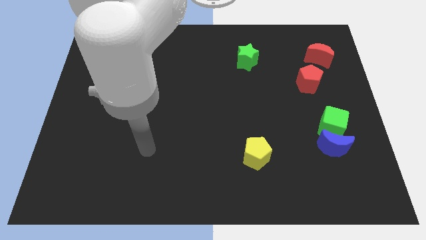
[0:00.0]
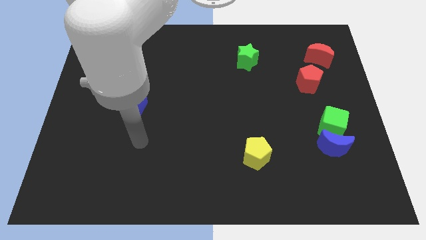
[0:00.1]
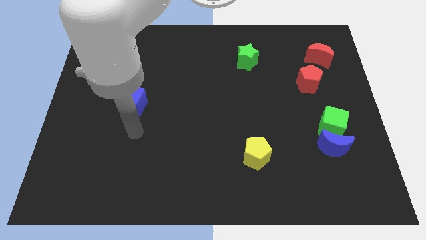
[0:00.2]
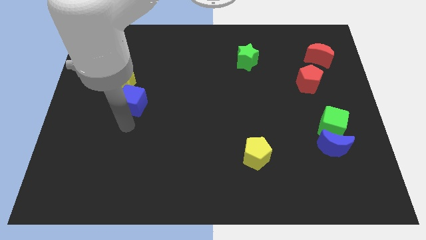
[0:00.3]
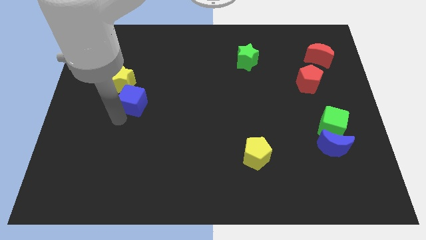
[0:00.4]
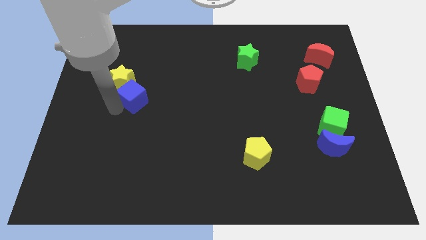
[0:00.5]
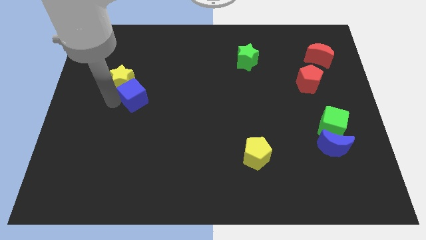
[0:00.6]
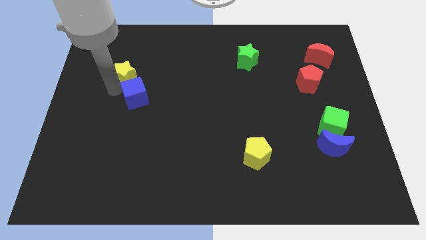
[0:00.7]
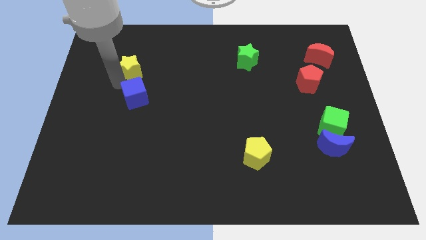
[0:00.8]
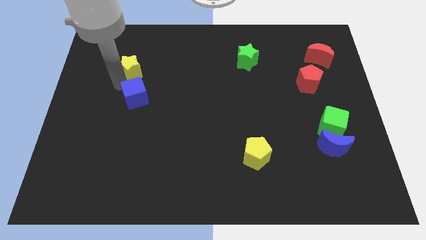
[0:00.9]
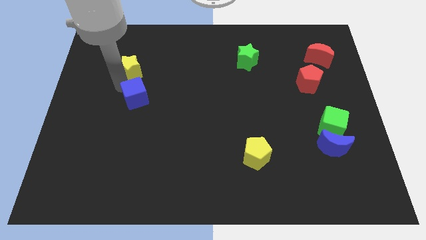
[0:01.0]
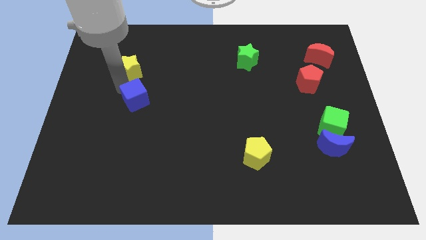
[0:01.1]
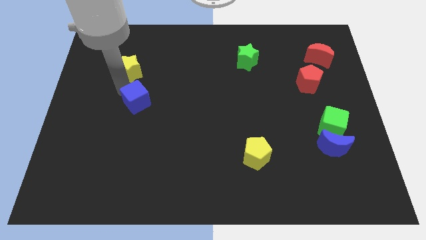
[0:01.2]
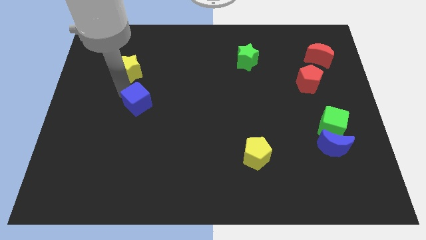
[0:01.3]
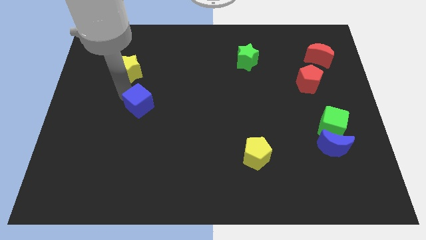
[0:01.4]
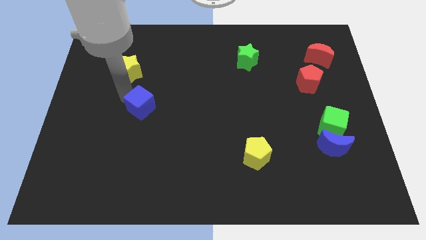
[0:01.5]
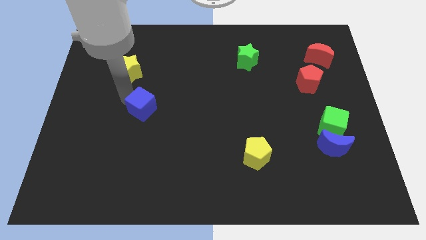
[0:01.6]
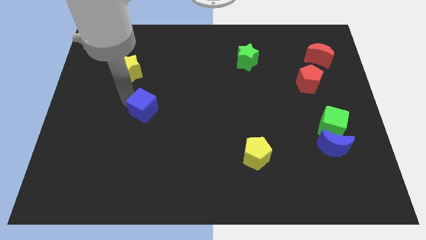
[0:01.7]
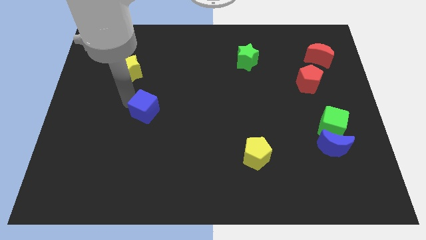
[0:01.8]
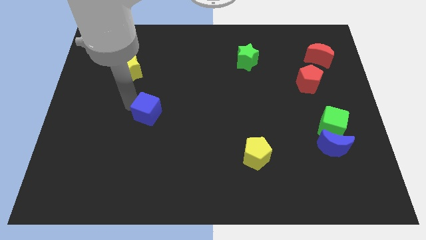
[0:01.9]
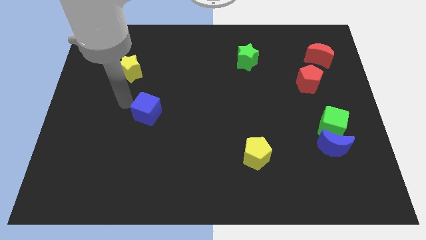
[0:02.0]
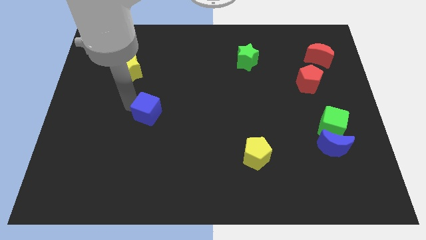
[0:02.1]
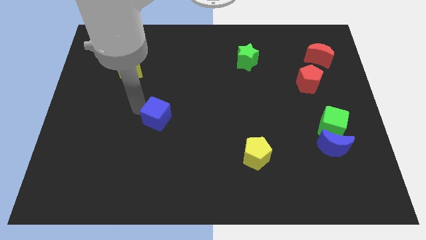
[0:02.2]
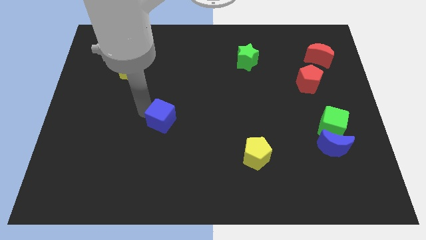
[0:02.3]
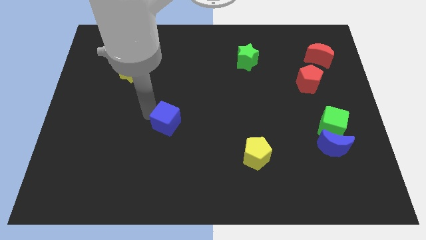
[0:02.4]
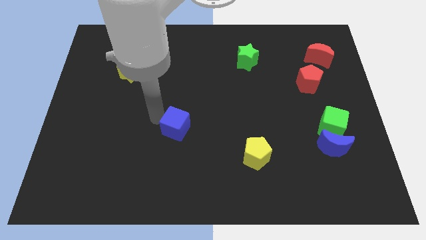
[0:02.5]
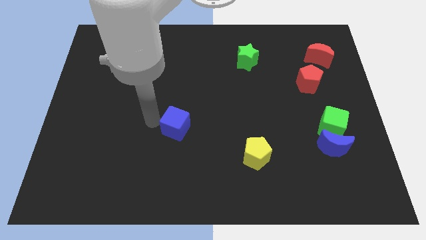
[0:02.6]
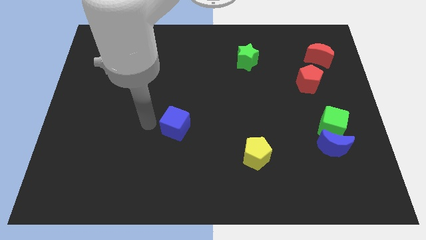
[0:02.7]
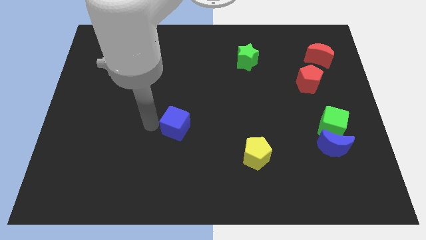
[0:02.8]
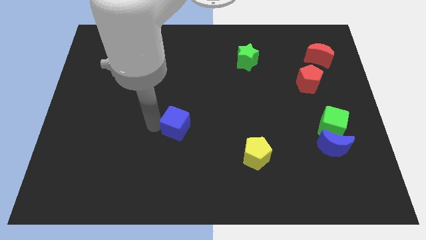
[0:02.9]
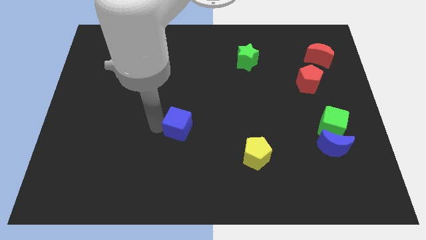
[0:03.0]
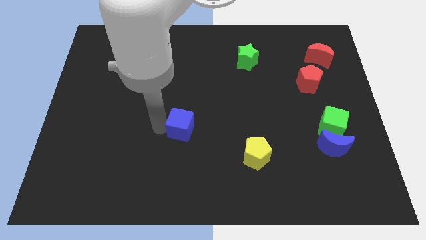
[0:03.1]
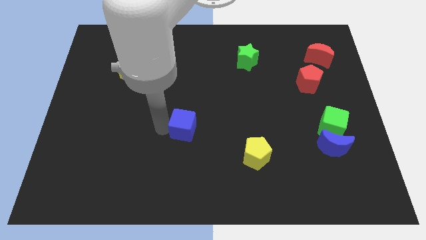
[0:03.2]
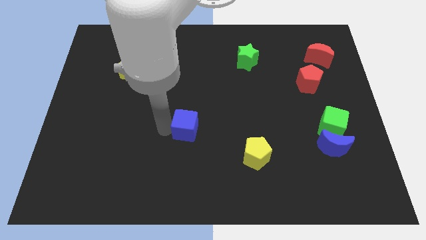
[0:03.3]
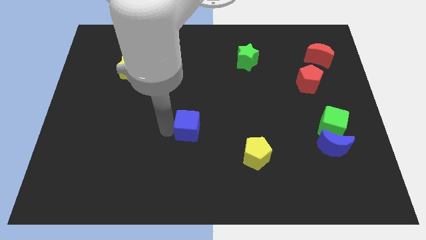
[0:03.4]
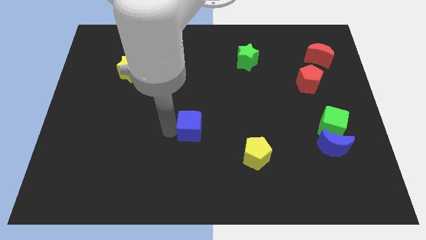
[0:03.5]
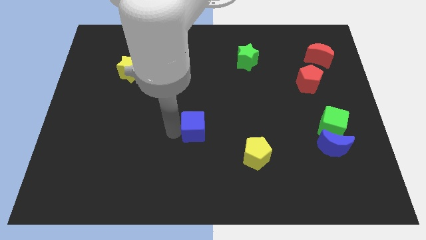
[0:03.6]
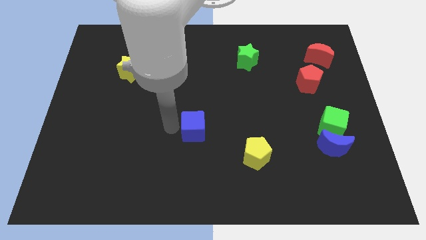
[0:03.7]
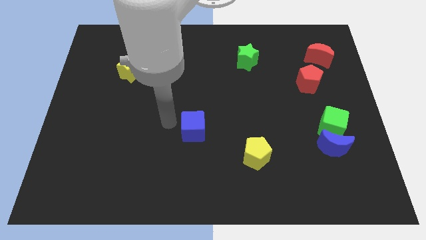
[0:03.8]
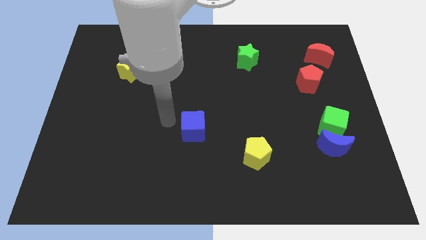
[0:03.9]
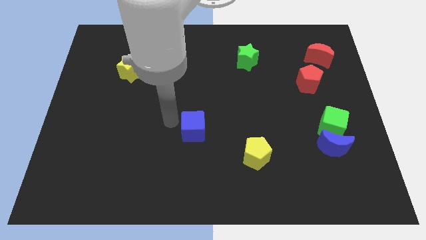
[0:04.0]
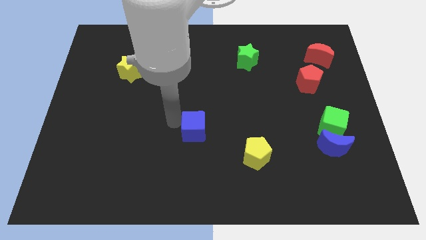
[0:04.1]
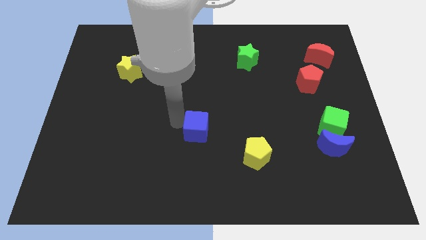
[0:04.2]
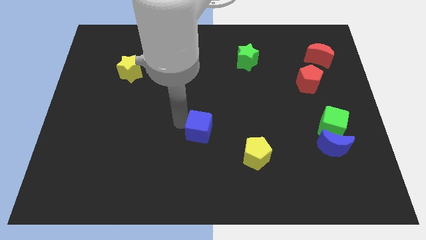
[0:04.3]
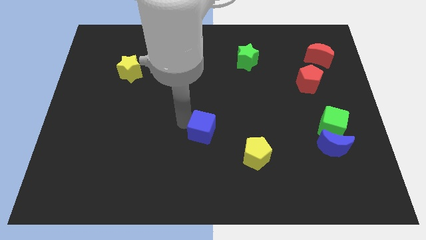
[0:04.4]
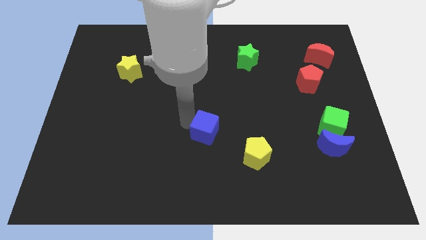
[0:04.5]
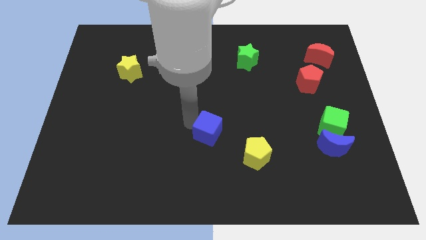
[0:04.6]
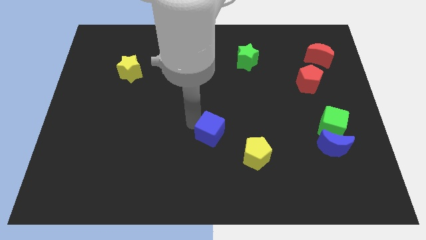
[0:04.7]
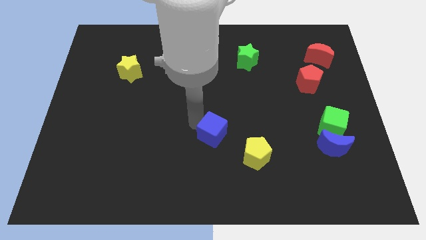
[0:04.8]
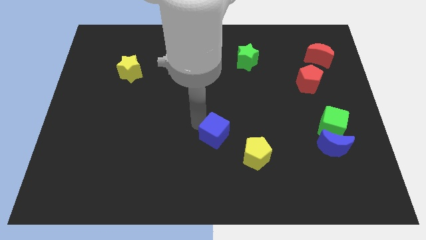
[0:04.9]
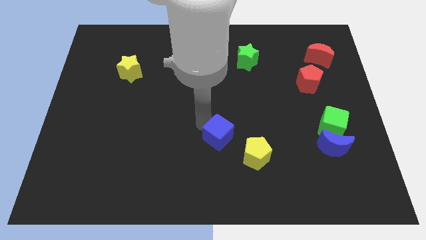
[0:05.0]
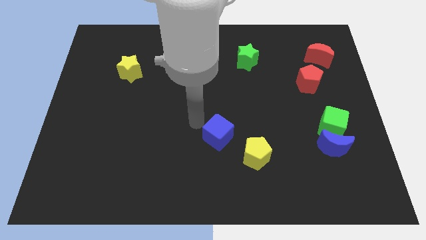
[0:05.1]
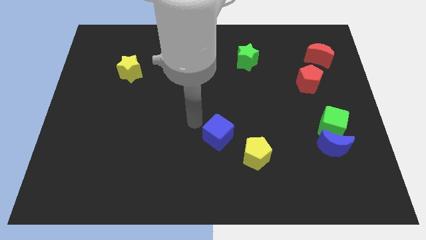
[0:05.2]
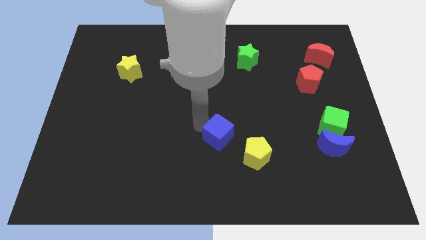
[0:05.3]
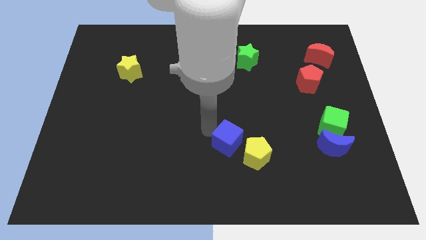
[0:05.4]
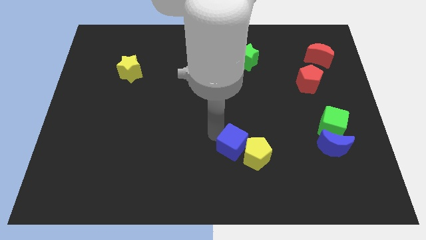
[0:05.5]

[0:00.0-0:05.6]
put the blue cube to the yellow pentagon

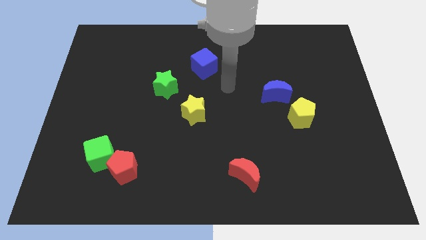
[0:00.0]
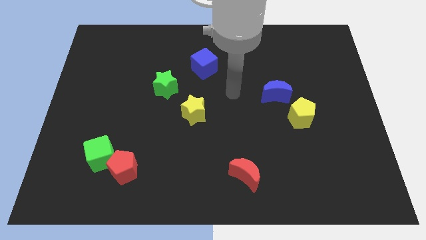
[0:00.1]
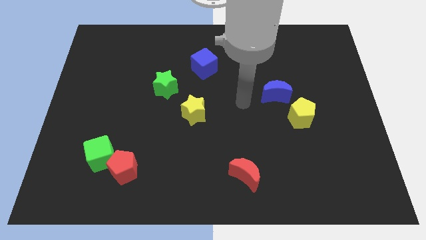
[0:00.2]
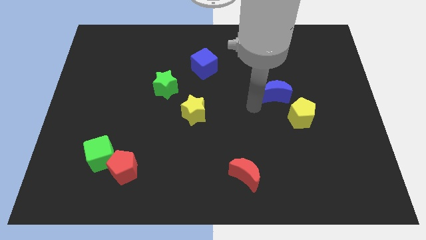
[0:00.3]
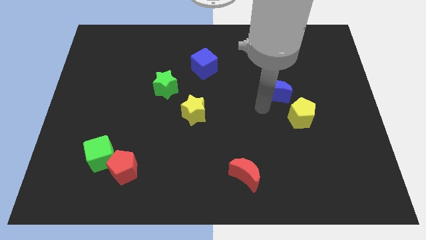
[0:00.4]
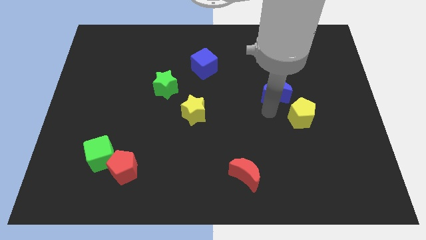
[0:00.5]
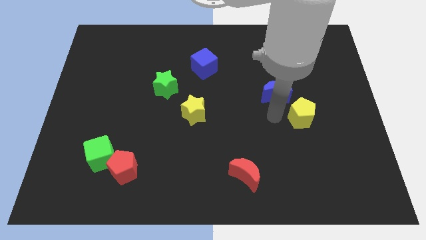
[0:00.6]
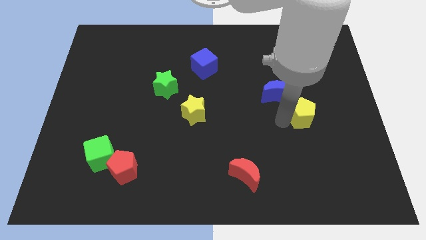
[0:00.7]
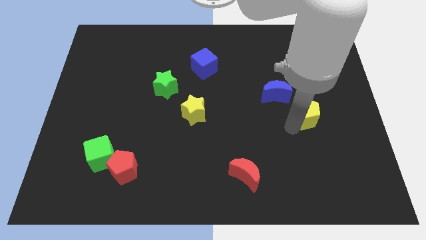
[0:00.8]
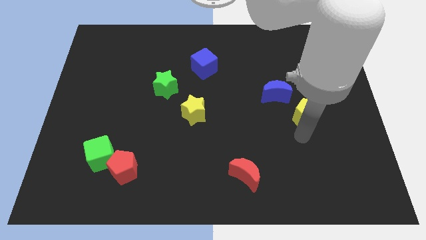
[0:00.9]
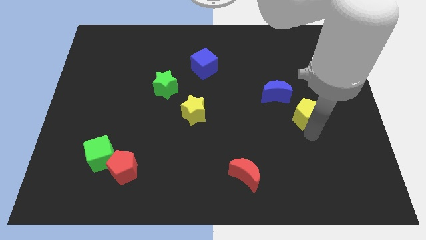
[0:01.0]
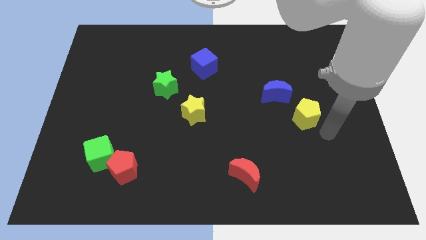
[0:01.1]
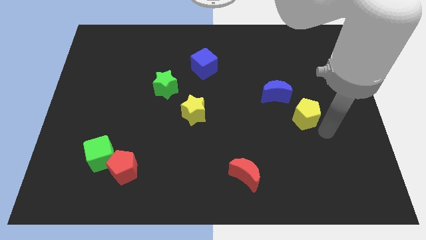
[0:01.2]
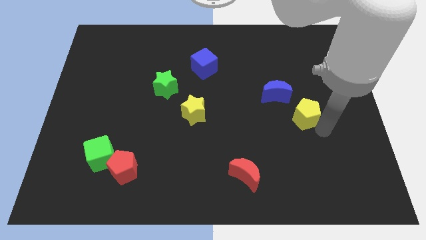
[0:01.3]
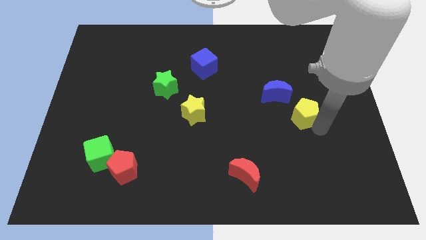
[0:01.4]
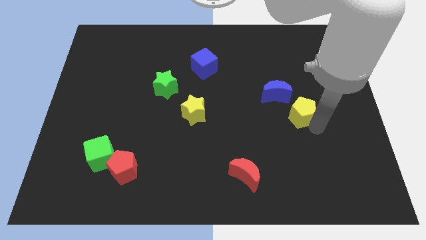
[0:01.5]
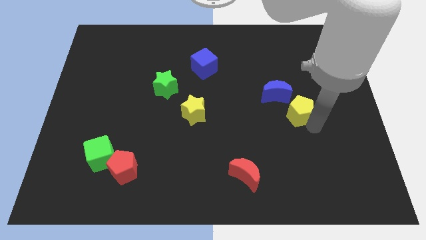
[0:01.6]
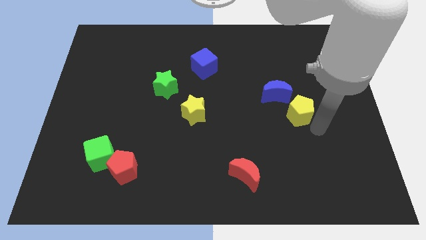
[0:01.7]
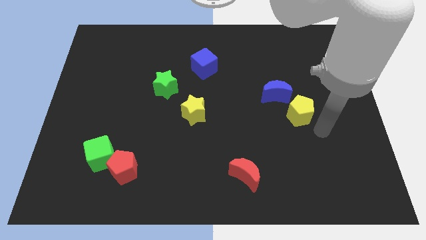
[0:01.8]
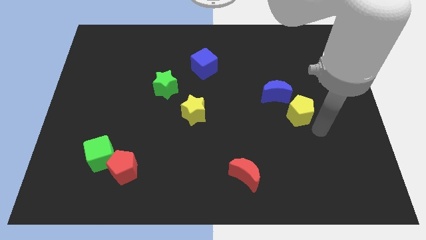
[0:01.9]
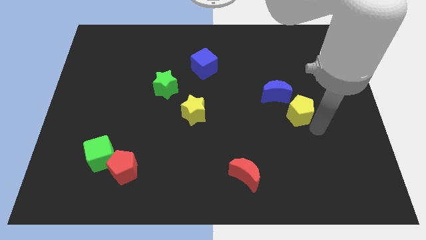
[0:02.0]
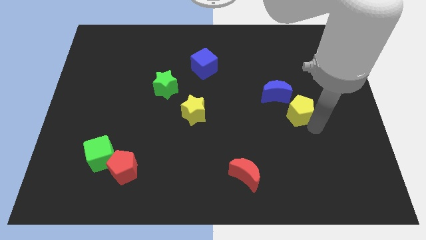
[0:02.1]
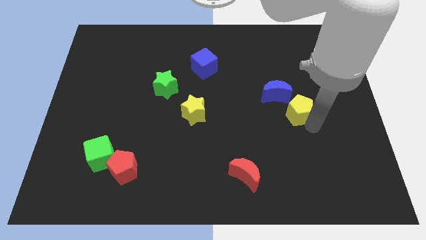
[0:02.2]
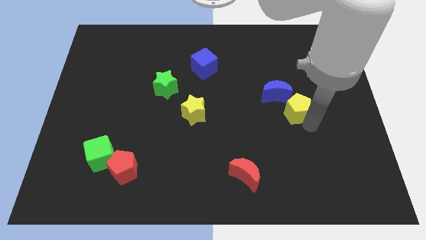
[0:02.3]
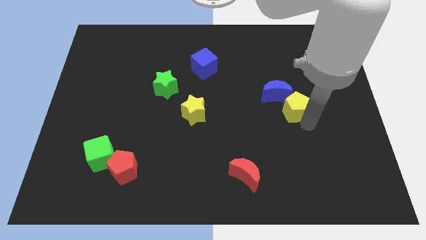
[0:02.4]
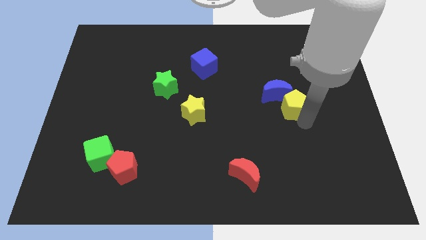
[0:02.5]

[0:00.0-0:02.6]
put the yellow pentagon to the blue moon
